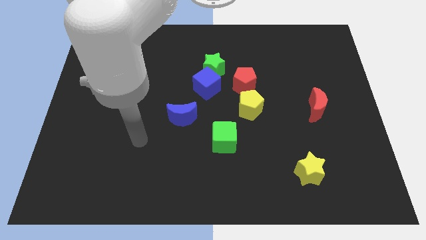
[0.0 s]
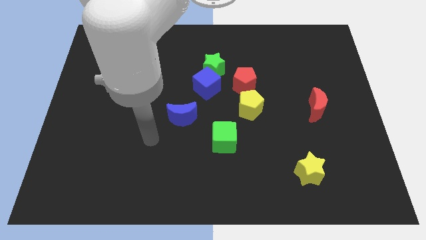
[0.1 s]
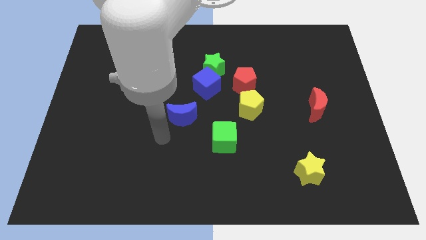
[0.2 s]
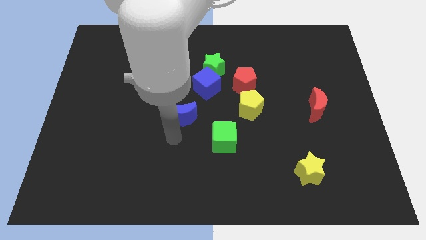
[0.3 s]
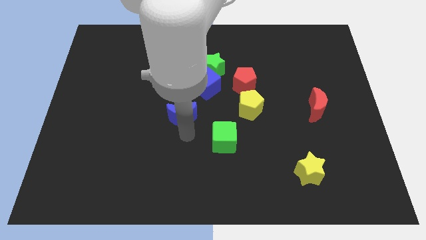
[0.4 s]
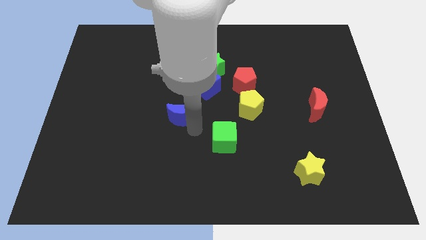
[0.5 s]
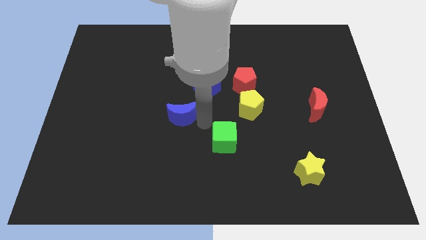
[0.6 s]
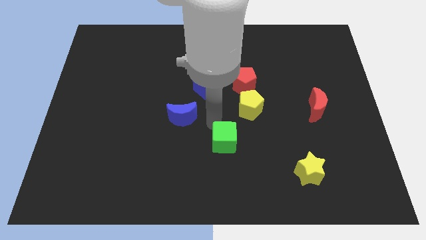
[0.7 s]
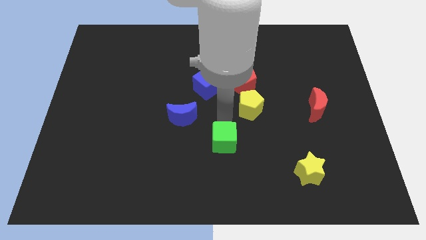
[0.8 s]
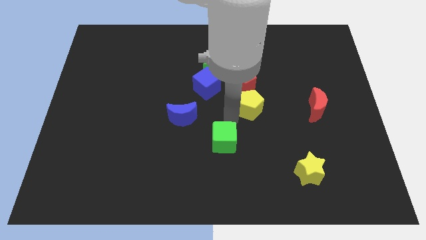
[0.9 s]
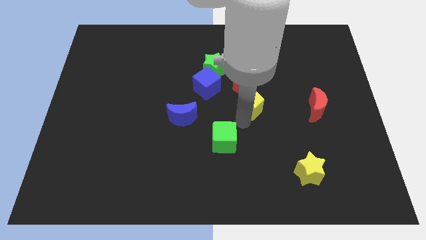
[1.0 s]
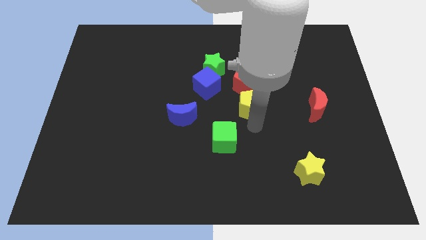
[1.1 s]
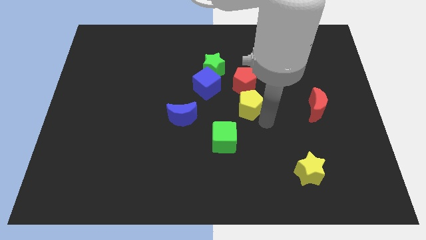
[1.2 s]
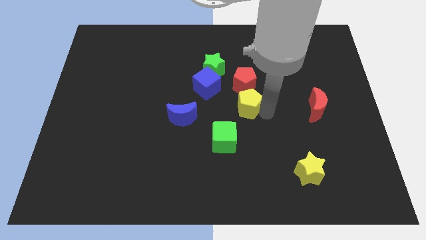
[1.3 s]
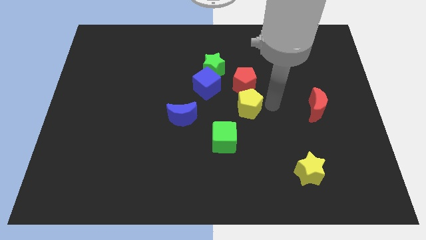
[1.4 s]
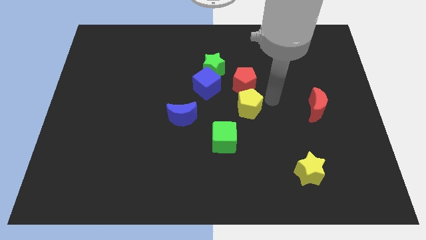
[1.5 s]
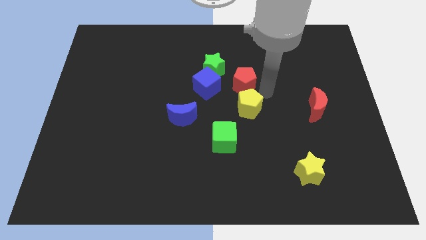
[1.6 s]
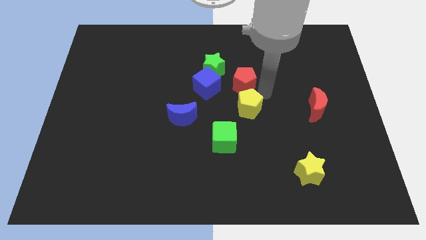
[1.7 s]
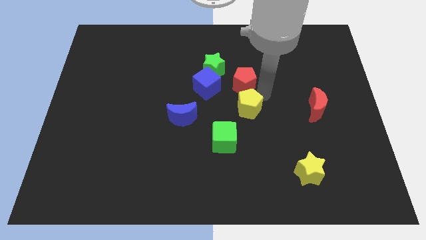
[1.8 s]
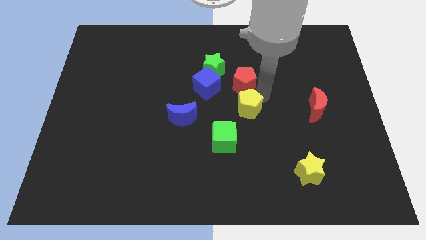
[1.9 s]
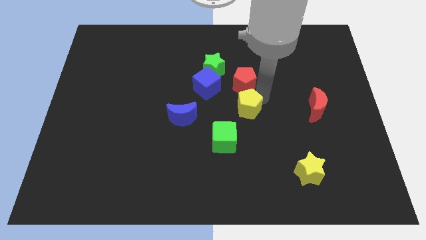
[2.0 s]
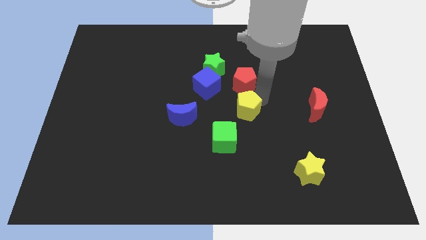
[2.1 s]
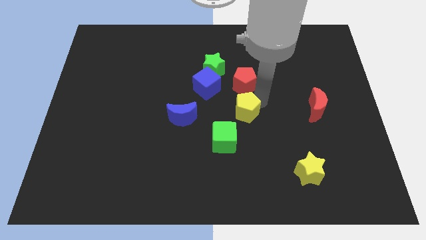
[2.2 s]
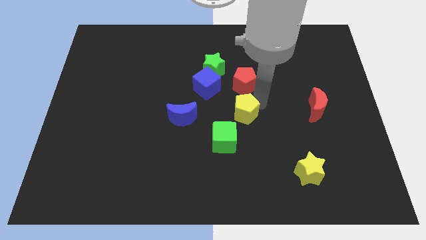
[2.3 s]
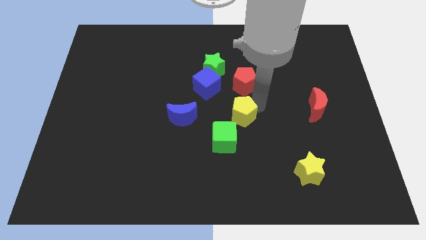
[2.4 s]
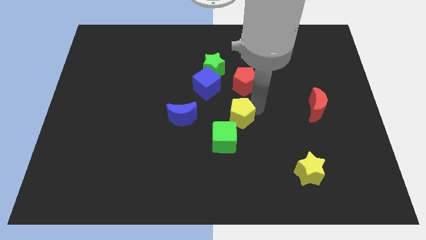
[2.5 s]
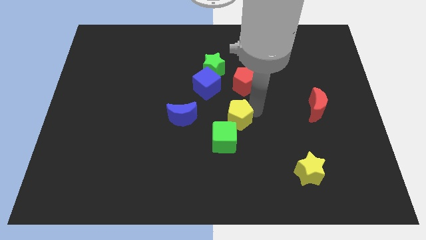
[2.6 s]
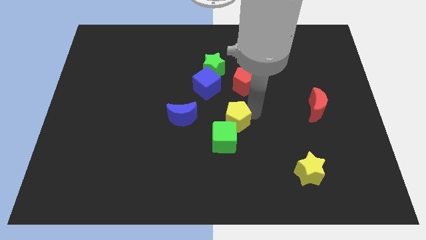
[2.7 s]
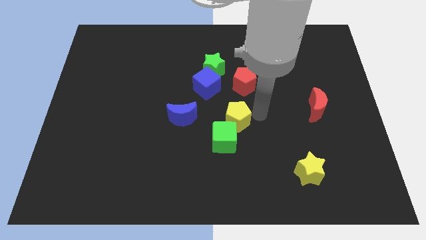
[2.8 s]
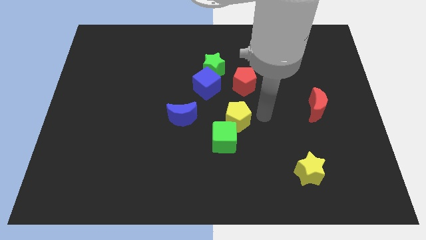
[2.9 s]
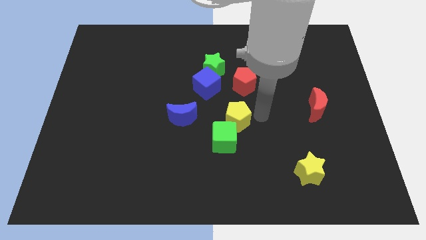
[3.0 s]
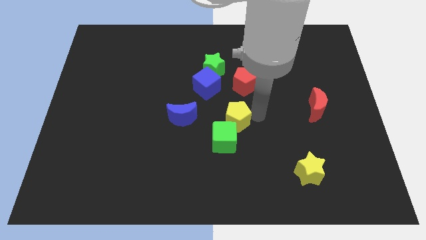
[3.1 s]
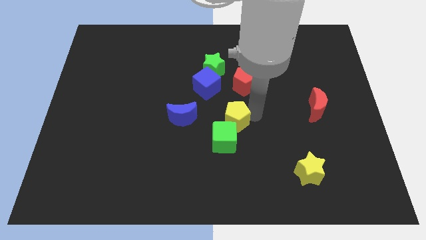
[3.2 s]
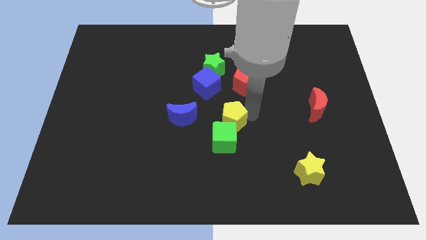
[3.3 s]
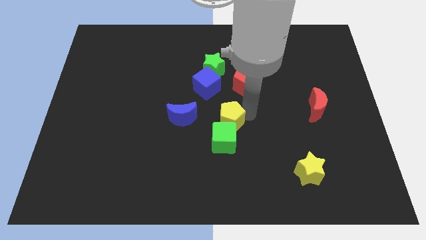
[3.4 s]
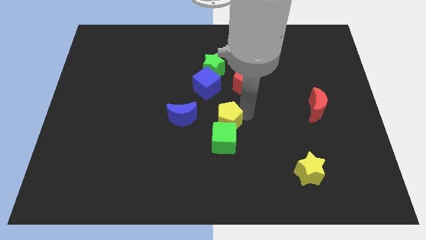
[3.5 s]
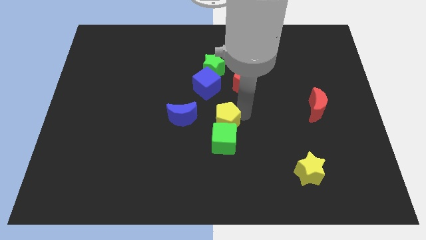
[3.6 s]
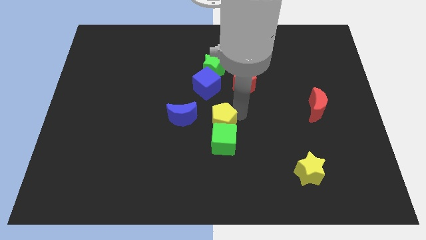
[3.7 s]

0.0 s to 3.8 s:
slide the yellow pentagon somewhat diagonally down and to the left

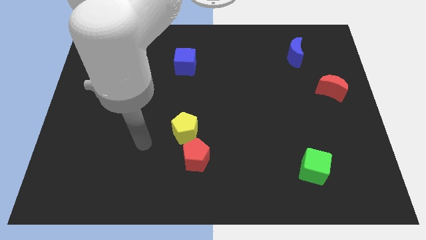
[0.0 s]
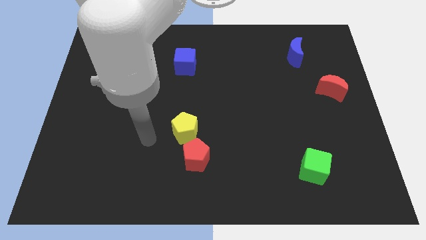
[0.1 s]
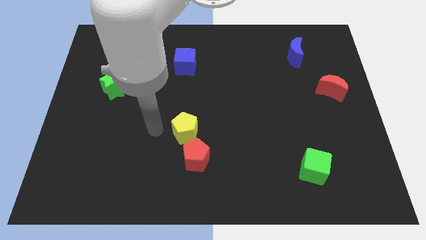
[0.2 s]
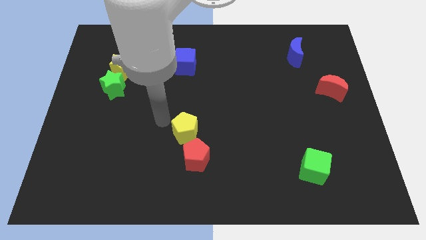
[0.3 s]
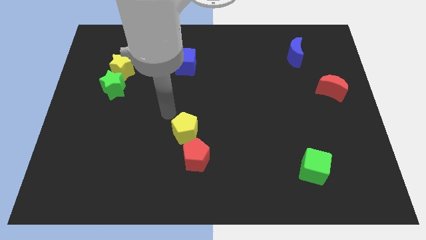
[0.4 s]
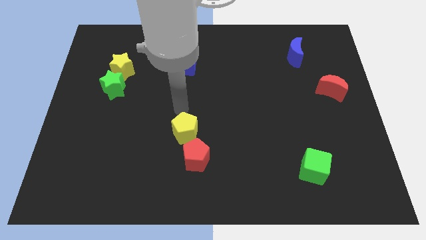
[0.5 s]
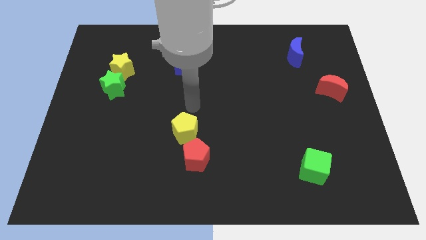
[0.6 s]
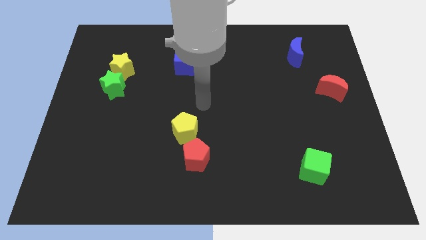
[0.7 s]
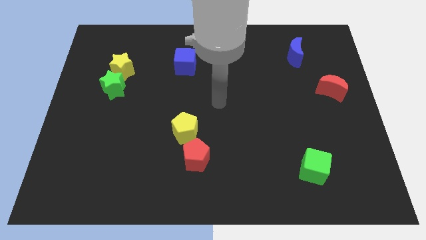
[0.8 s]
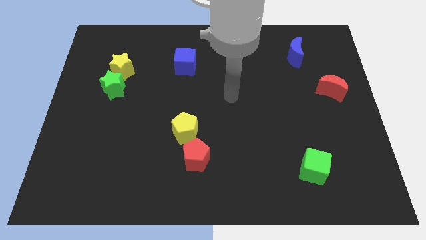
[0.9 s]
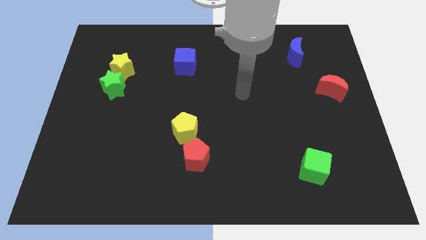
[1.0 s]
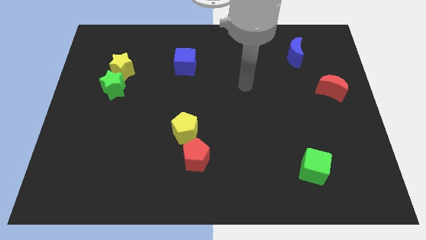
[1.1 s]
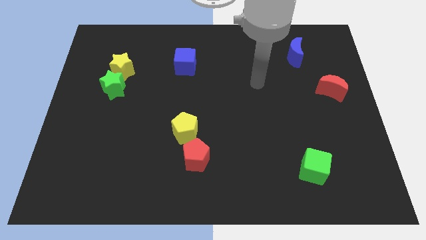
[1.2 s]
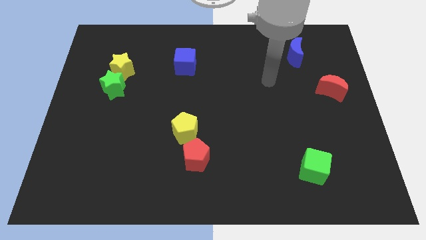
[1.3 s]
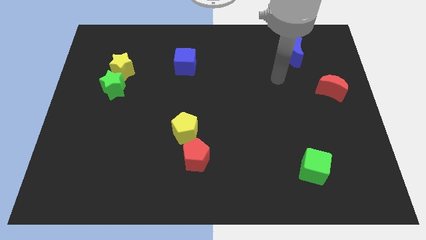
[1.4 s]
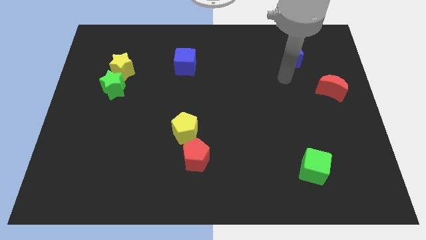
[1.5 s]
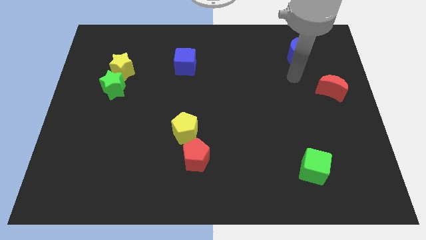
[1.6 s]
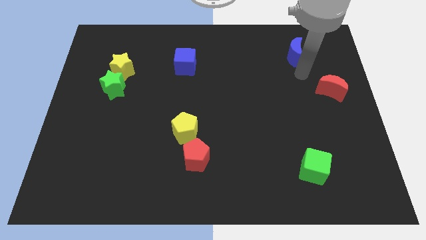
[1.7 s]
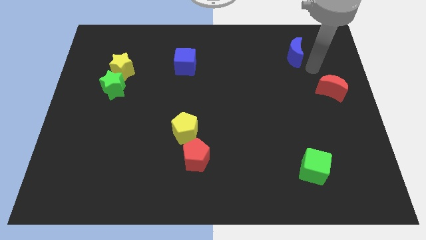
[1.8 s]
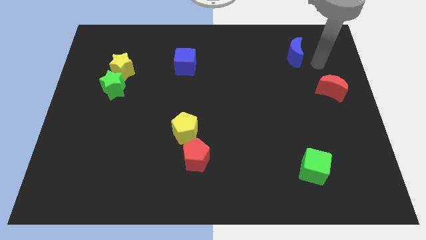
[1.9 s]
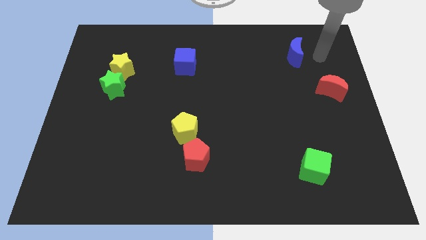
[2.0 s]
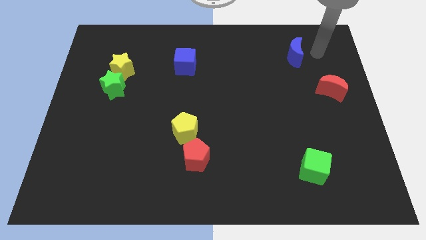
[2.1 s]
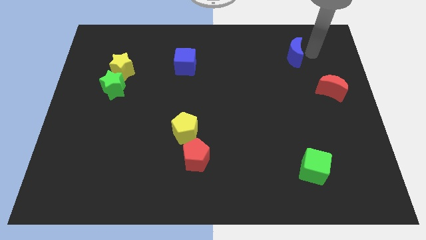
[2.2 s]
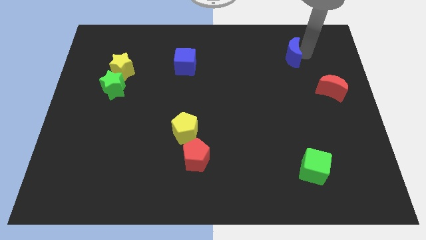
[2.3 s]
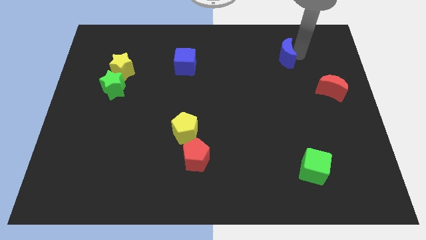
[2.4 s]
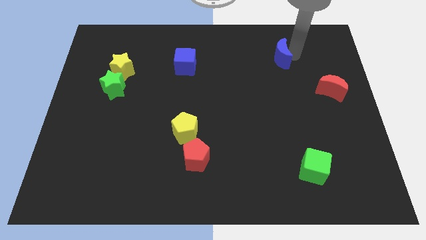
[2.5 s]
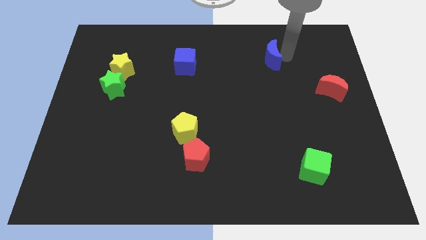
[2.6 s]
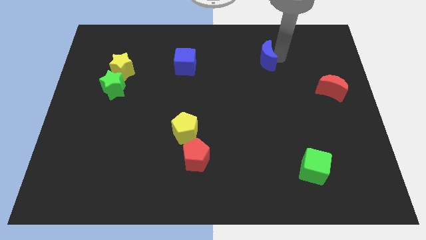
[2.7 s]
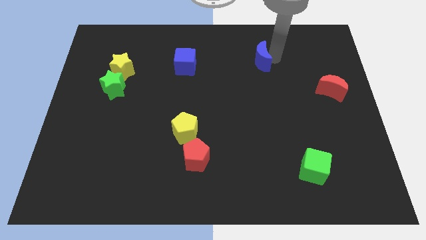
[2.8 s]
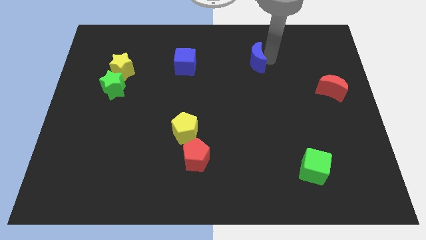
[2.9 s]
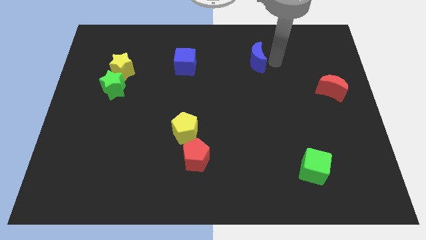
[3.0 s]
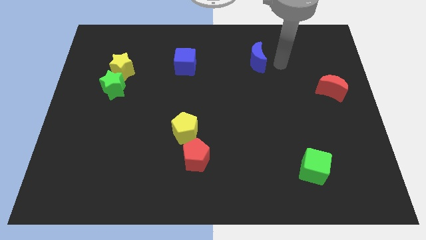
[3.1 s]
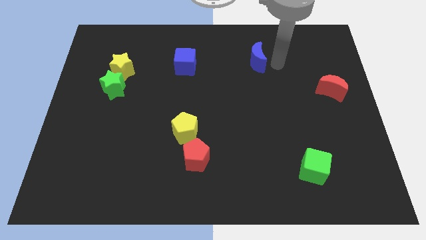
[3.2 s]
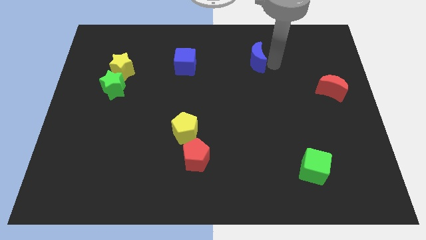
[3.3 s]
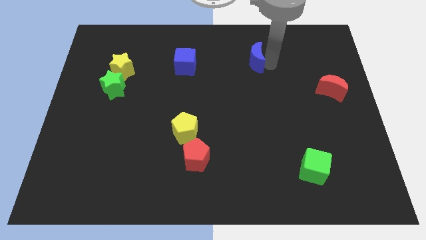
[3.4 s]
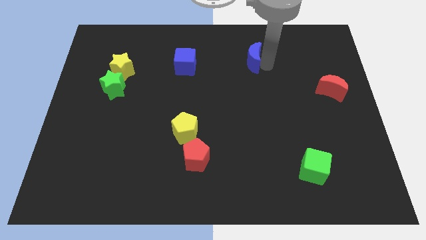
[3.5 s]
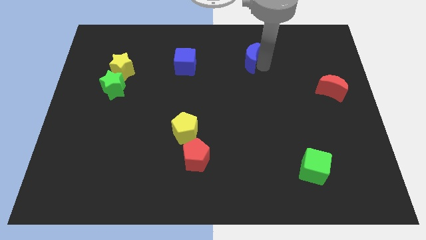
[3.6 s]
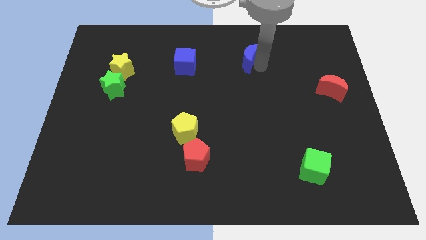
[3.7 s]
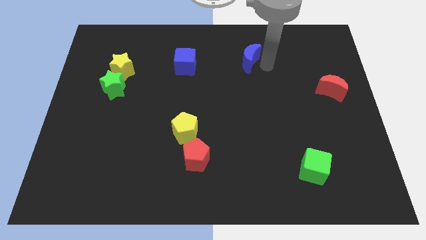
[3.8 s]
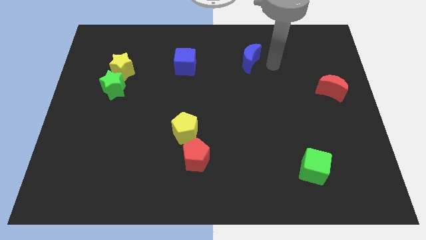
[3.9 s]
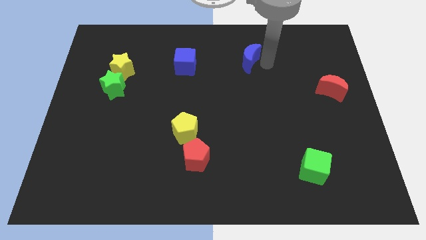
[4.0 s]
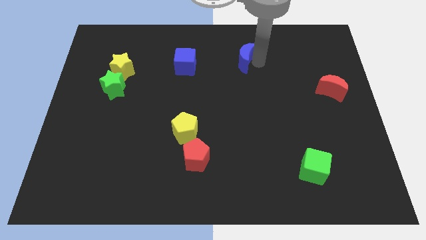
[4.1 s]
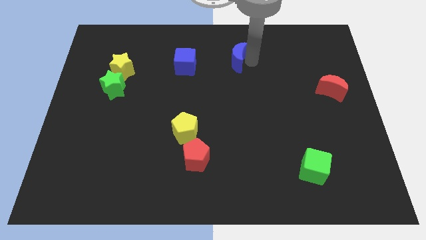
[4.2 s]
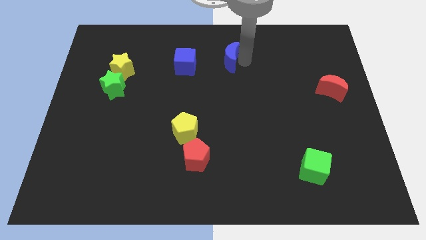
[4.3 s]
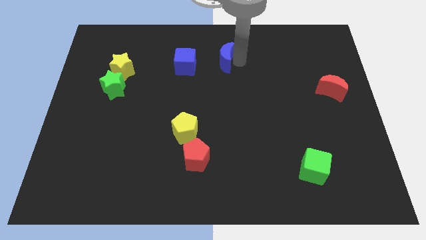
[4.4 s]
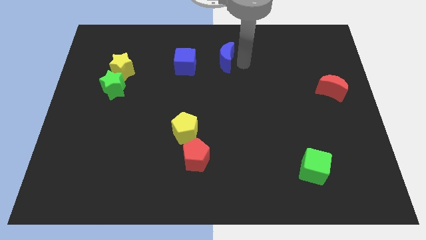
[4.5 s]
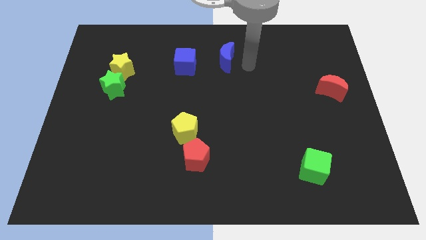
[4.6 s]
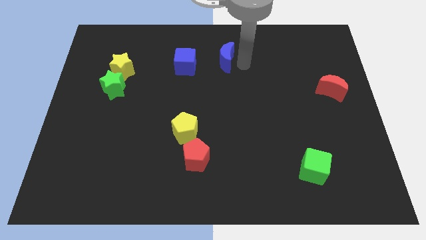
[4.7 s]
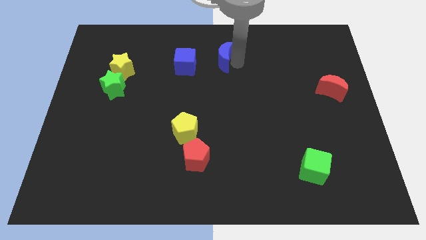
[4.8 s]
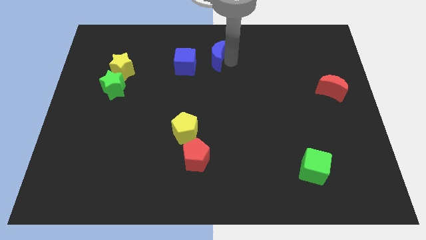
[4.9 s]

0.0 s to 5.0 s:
slide the blue moon left
